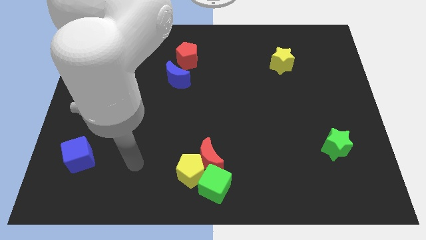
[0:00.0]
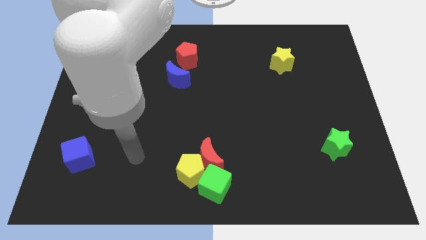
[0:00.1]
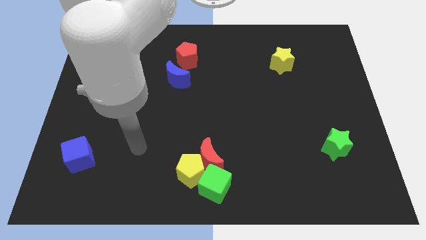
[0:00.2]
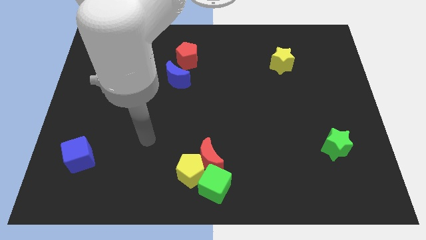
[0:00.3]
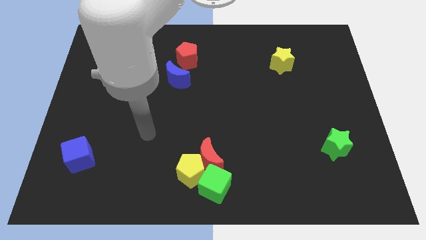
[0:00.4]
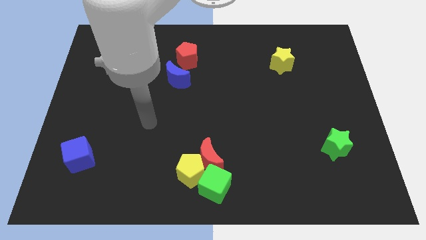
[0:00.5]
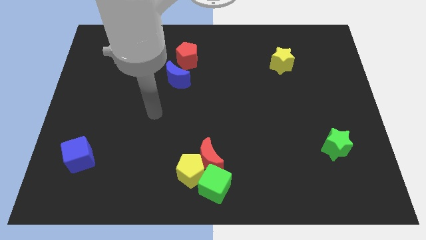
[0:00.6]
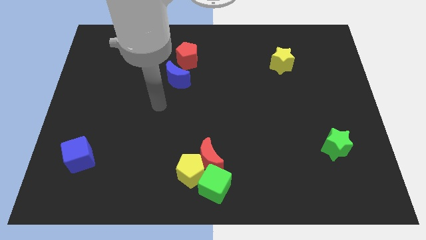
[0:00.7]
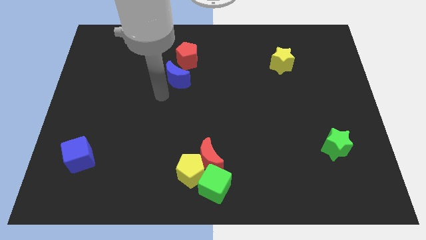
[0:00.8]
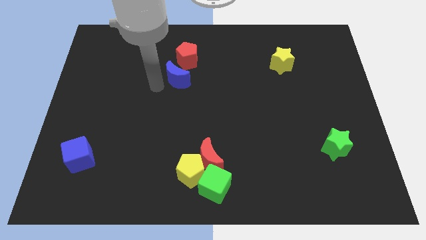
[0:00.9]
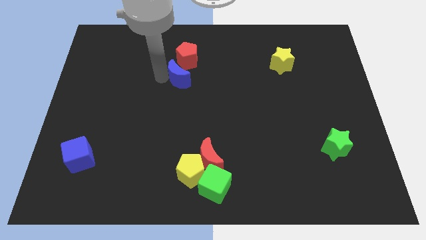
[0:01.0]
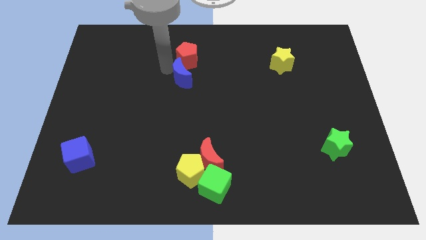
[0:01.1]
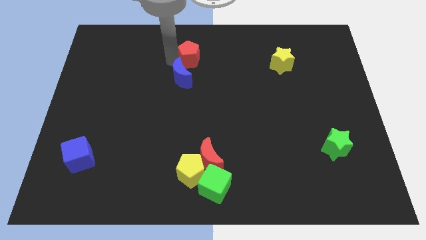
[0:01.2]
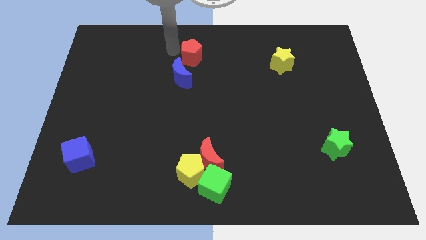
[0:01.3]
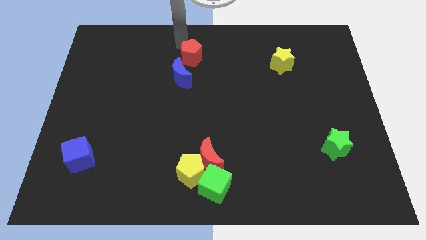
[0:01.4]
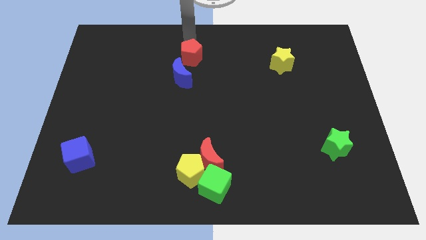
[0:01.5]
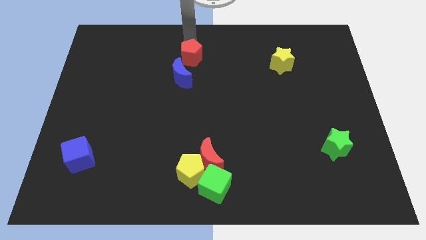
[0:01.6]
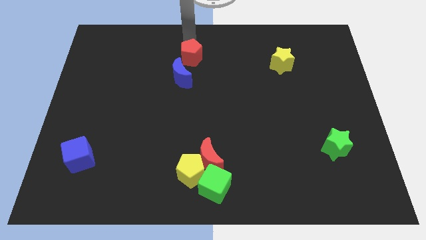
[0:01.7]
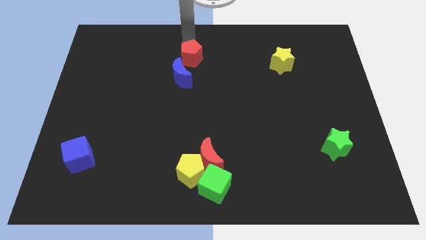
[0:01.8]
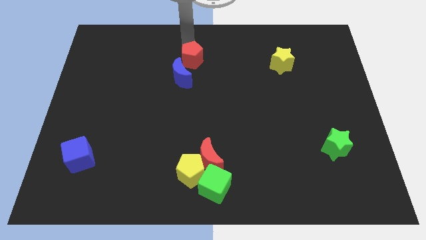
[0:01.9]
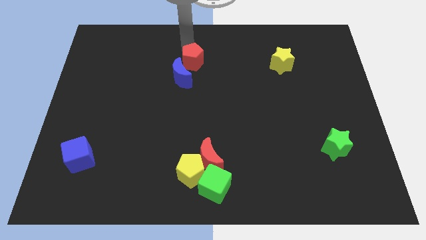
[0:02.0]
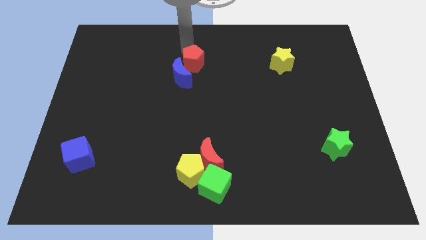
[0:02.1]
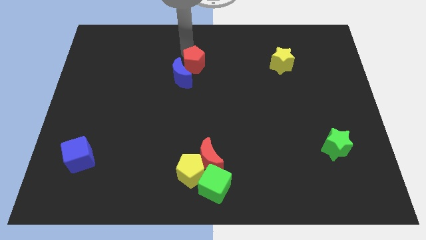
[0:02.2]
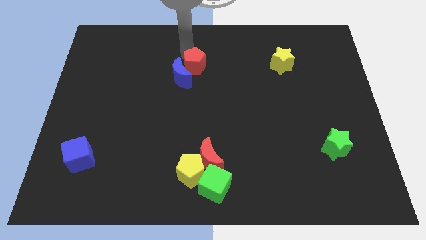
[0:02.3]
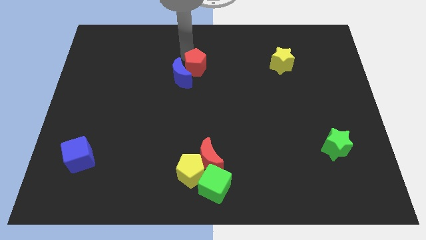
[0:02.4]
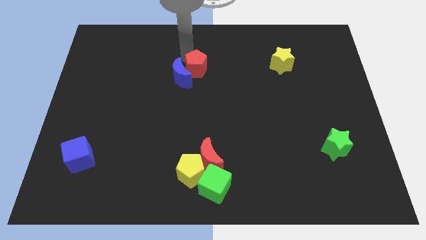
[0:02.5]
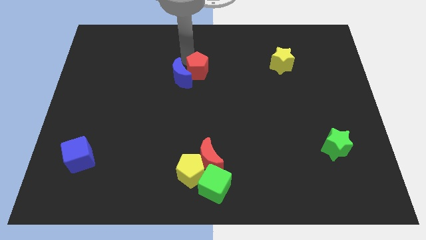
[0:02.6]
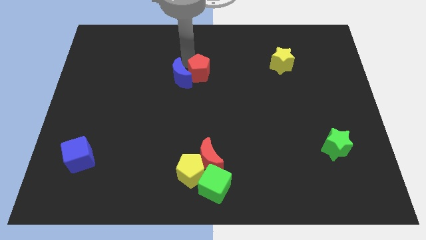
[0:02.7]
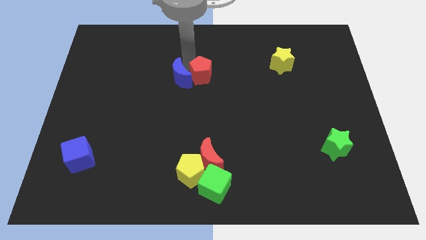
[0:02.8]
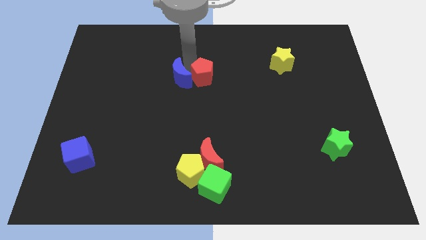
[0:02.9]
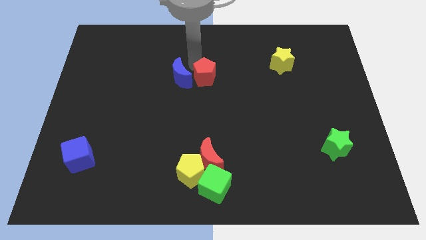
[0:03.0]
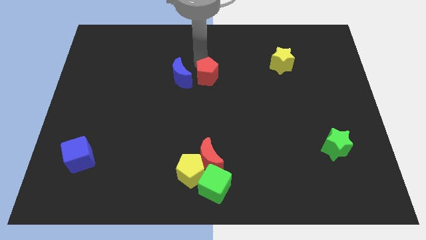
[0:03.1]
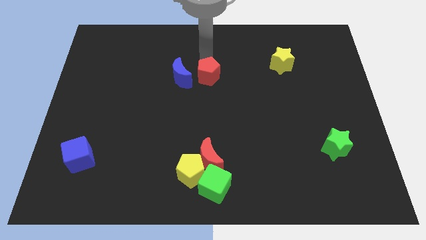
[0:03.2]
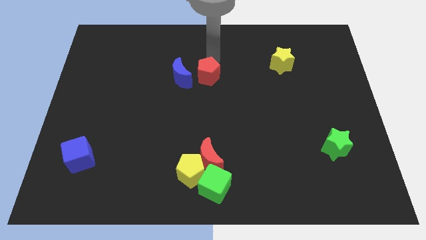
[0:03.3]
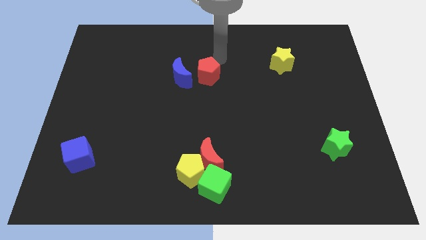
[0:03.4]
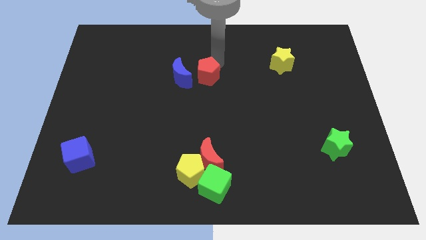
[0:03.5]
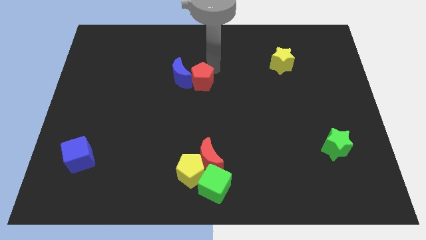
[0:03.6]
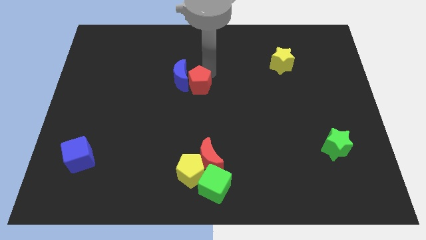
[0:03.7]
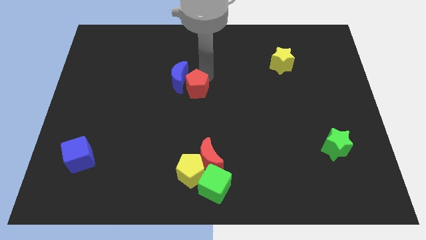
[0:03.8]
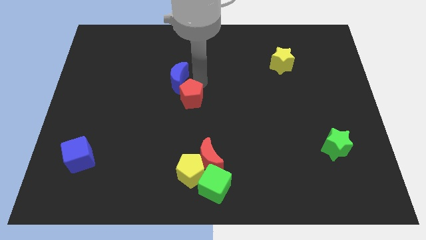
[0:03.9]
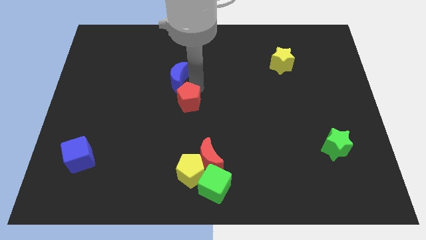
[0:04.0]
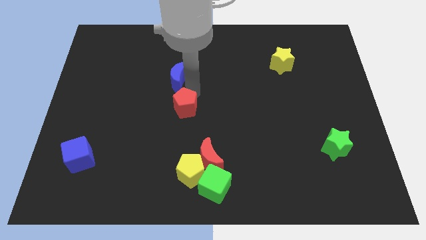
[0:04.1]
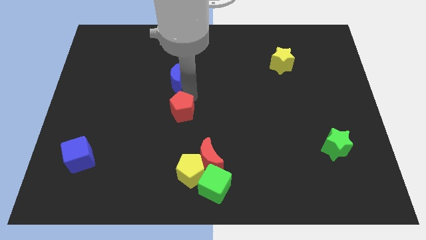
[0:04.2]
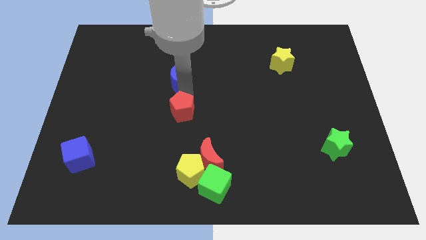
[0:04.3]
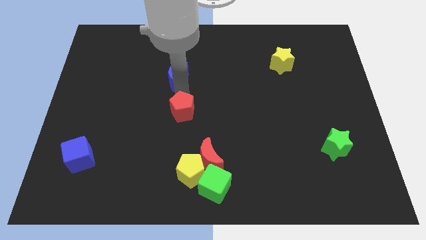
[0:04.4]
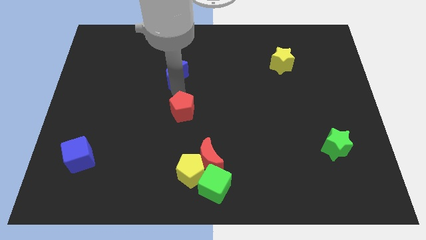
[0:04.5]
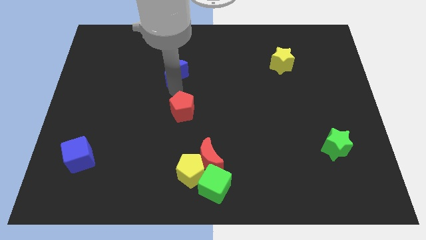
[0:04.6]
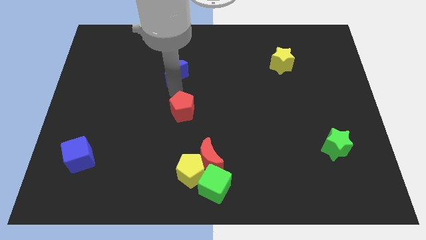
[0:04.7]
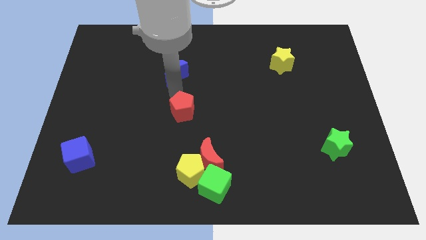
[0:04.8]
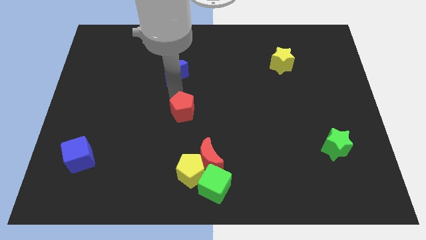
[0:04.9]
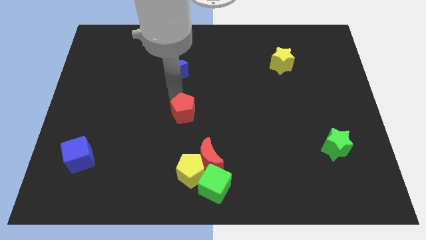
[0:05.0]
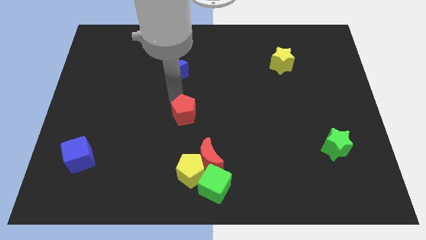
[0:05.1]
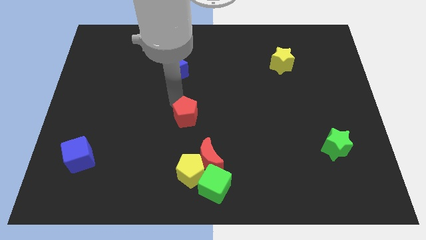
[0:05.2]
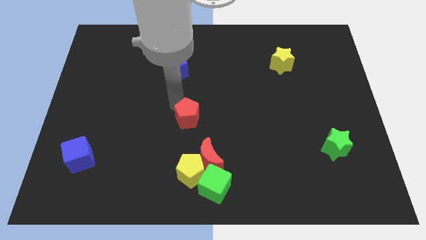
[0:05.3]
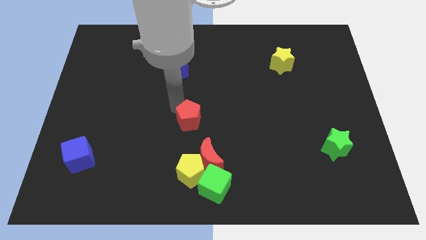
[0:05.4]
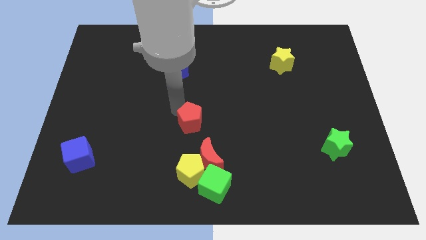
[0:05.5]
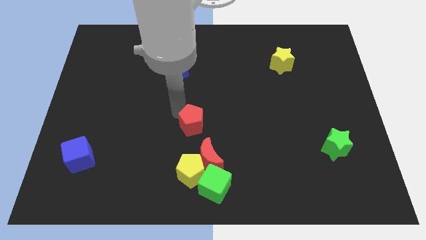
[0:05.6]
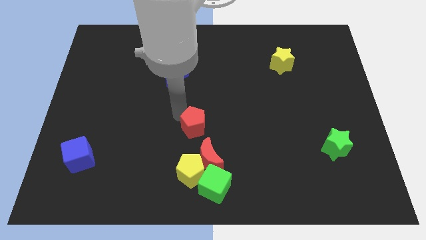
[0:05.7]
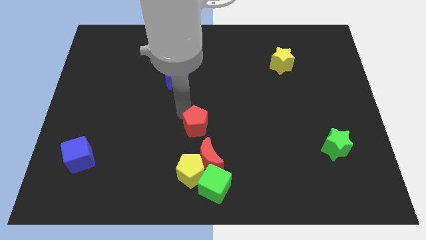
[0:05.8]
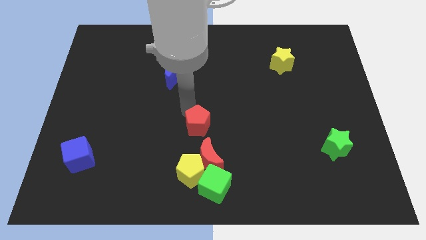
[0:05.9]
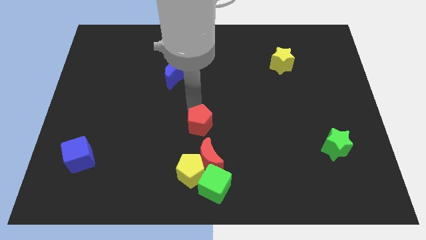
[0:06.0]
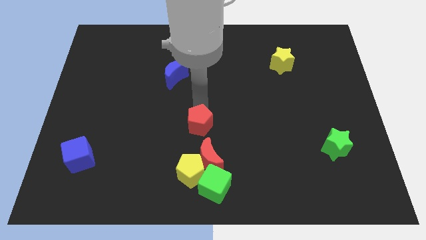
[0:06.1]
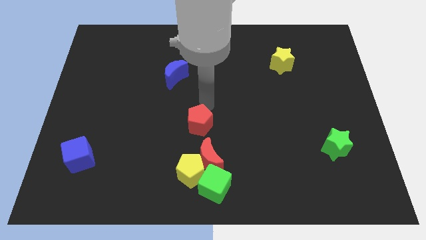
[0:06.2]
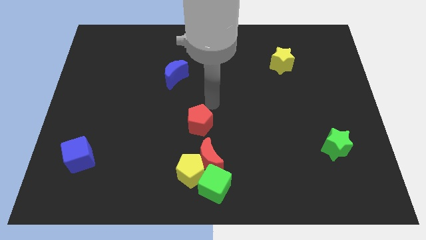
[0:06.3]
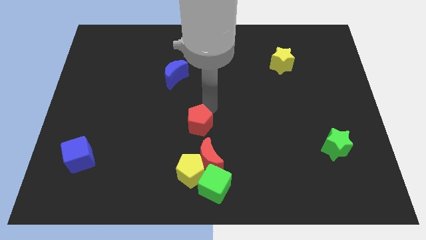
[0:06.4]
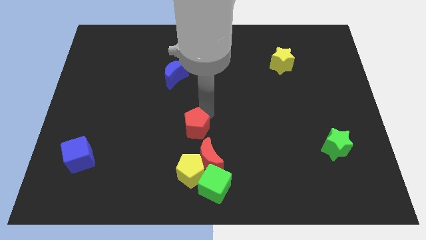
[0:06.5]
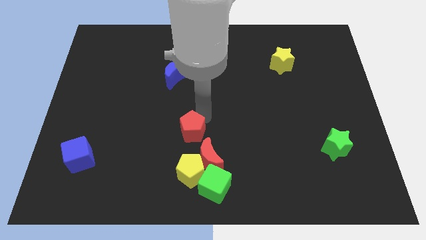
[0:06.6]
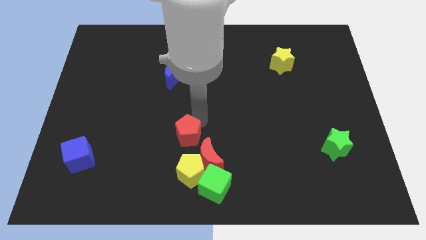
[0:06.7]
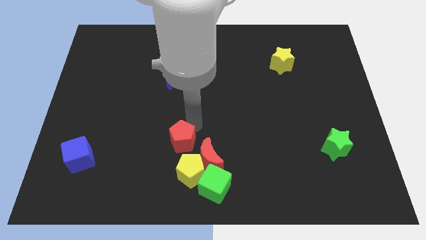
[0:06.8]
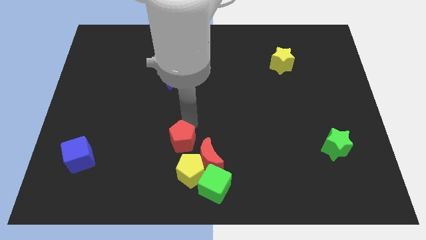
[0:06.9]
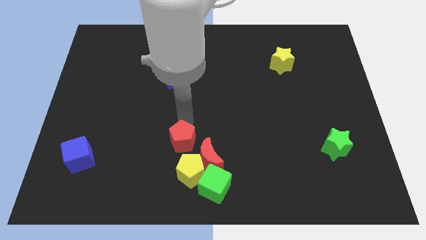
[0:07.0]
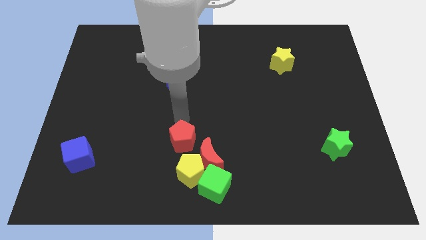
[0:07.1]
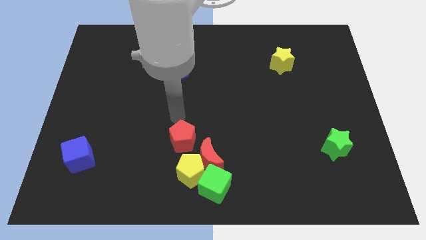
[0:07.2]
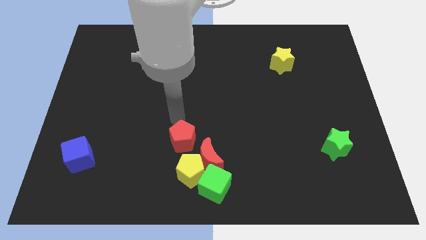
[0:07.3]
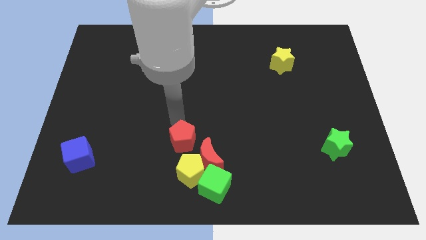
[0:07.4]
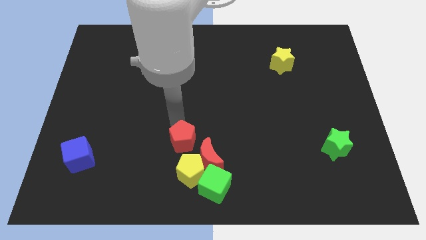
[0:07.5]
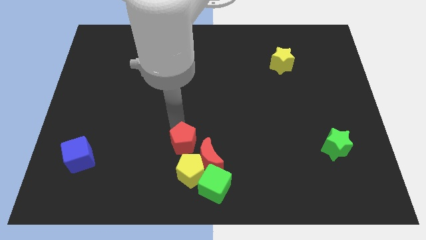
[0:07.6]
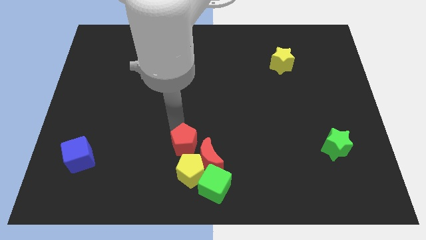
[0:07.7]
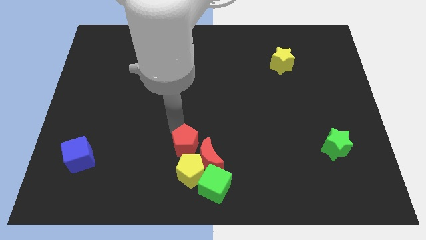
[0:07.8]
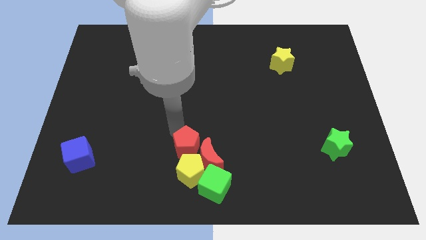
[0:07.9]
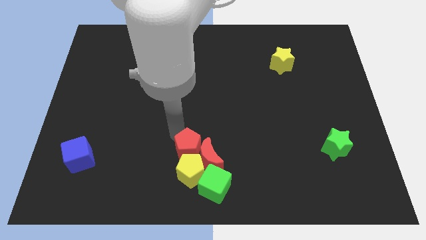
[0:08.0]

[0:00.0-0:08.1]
move the red pentagon close to the yellow pentagon

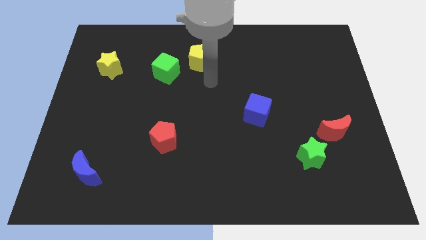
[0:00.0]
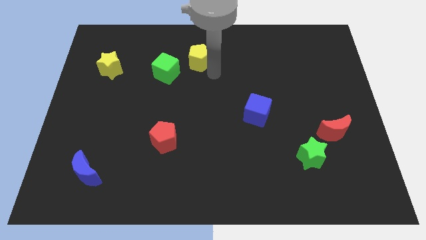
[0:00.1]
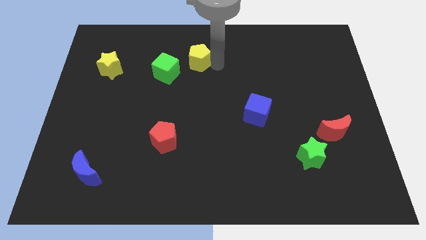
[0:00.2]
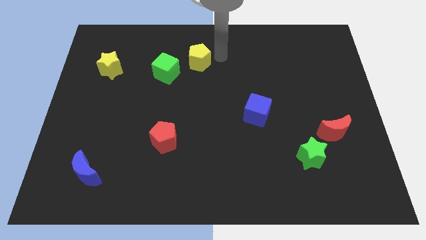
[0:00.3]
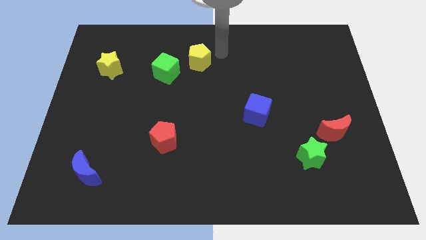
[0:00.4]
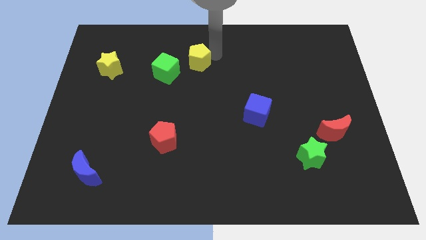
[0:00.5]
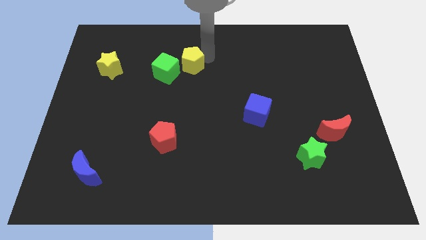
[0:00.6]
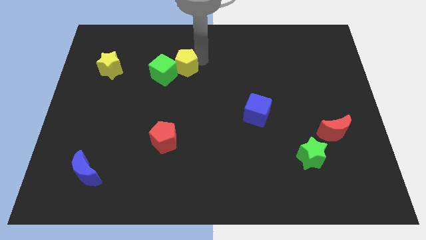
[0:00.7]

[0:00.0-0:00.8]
move the yellow pentagon close to the green cube
